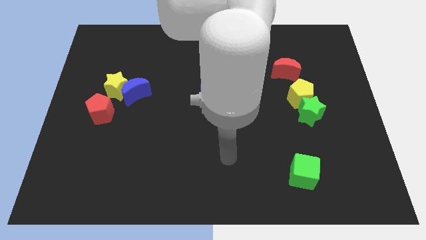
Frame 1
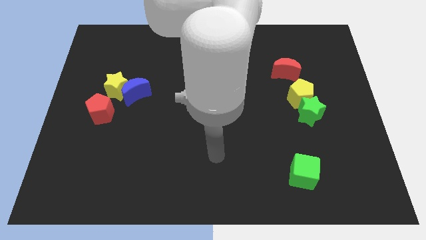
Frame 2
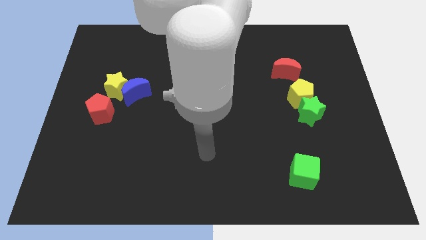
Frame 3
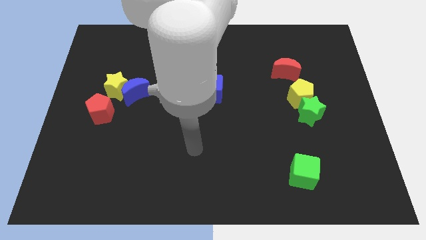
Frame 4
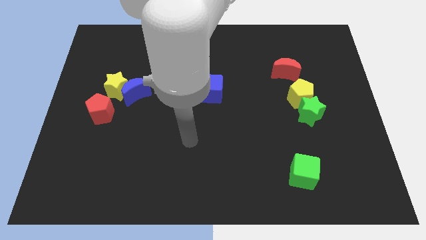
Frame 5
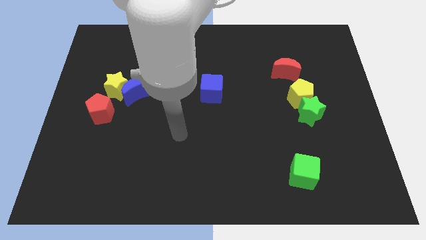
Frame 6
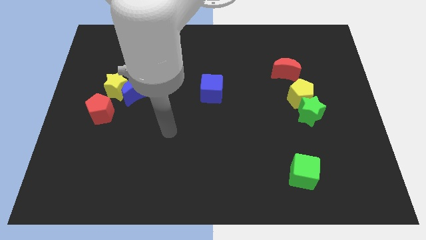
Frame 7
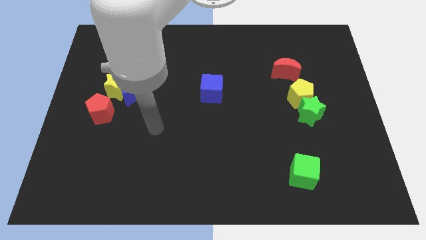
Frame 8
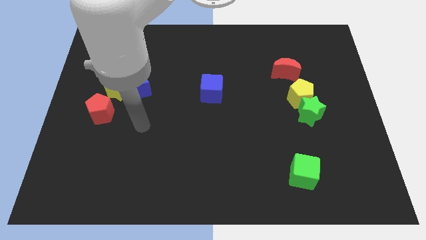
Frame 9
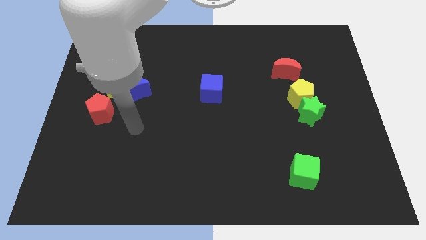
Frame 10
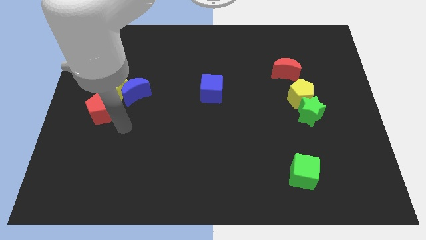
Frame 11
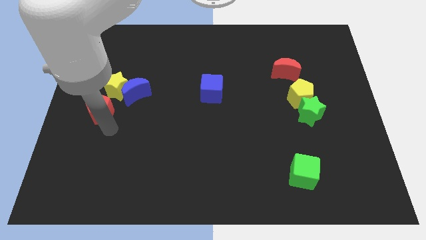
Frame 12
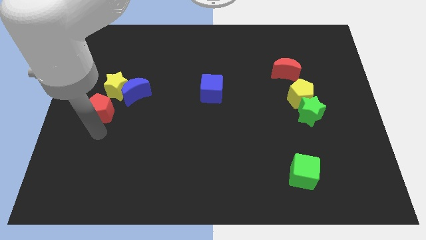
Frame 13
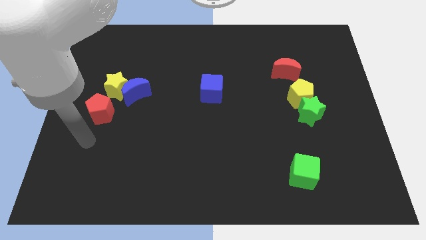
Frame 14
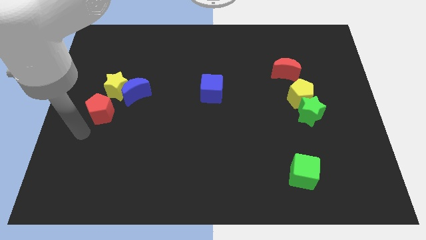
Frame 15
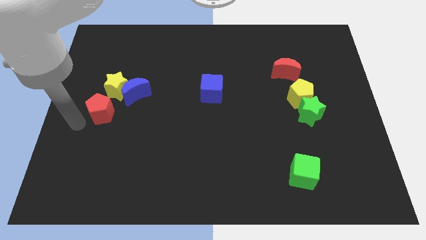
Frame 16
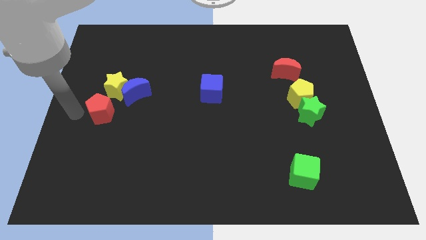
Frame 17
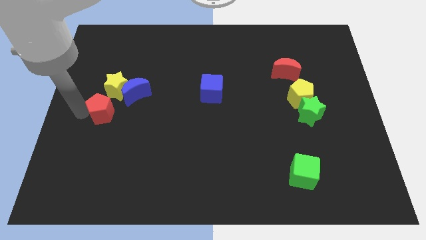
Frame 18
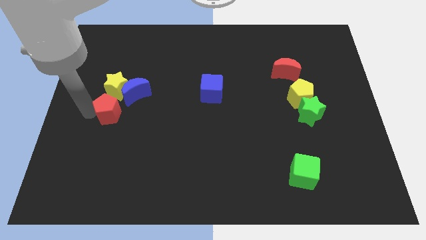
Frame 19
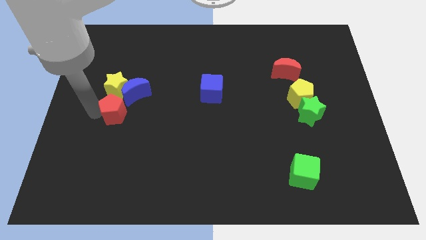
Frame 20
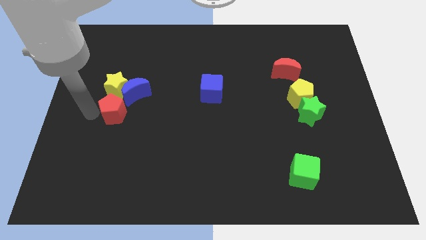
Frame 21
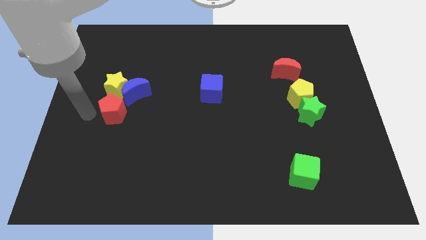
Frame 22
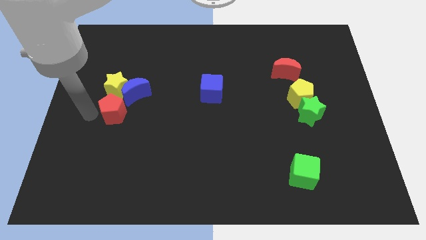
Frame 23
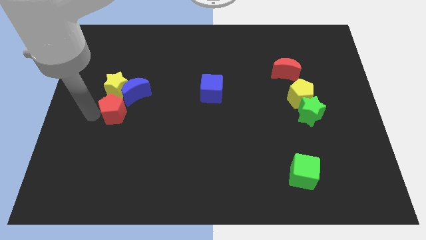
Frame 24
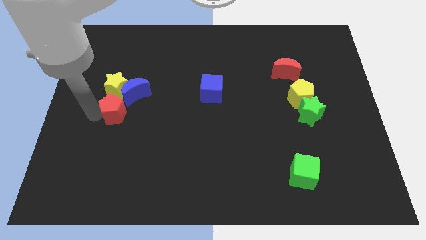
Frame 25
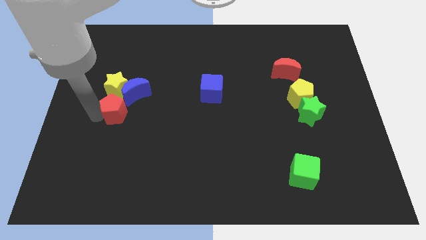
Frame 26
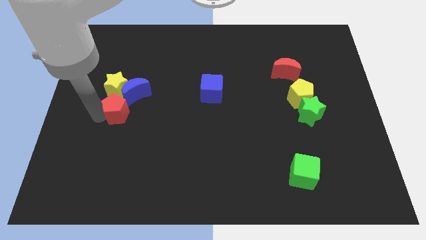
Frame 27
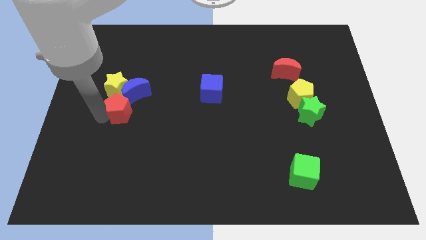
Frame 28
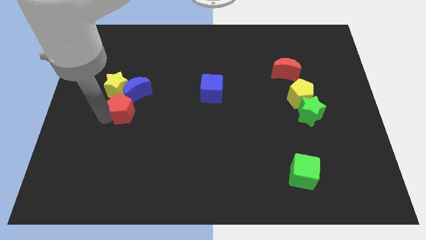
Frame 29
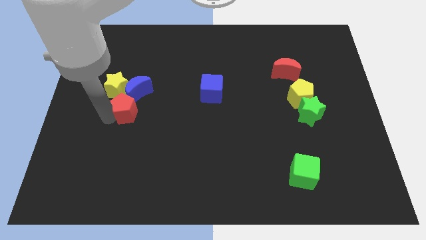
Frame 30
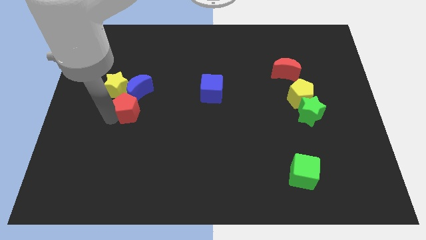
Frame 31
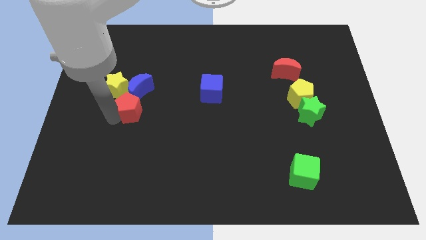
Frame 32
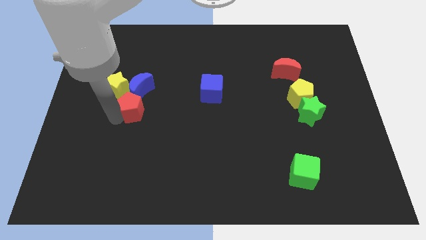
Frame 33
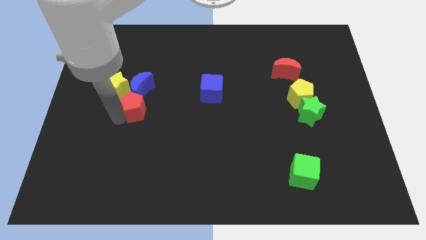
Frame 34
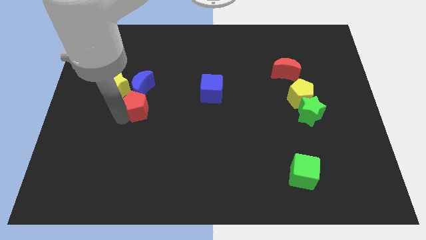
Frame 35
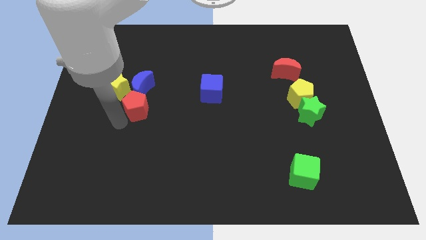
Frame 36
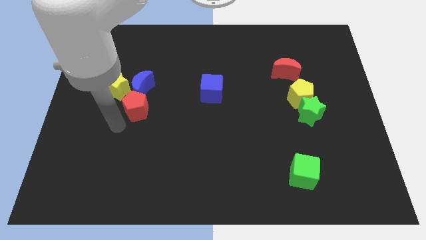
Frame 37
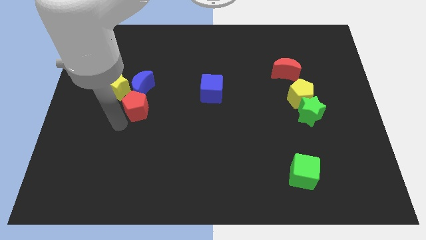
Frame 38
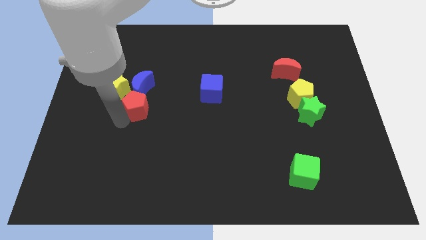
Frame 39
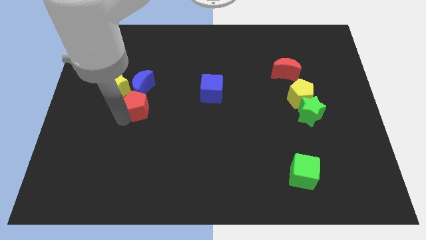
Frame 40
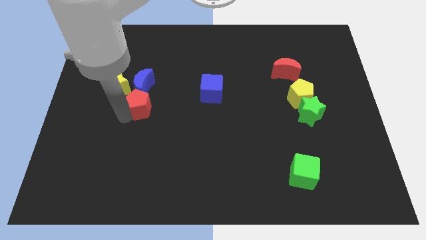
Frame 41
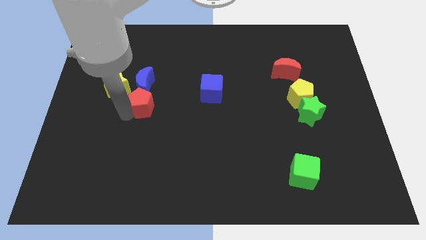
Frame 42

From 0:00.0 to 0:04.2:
push the red pentagon a little bit upwards and to the right diagonally

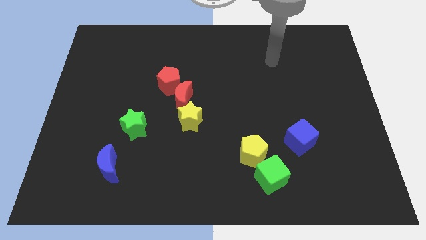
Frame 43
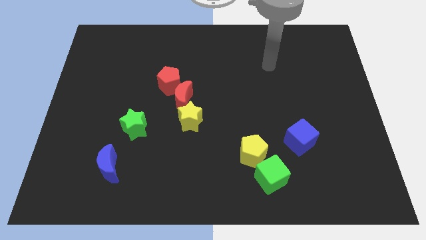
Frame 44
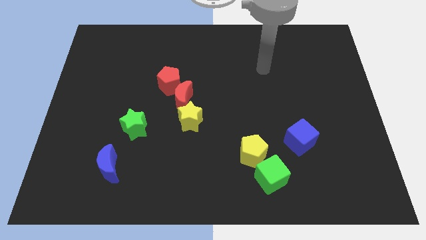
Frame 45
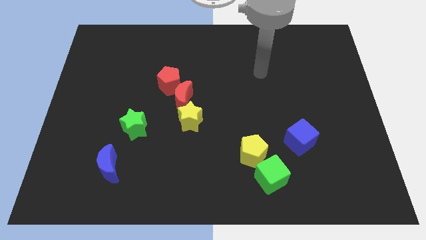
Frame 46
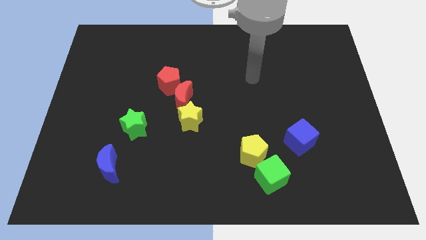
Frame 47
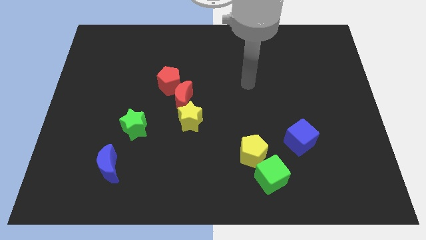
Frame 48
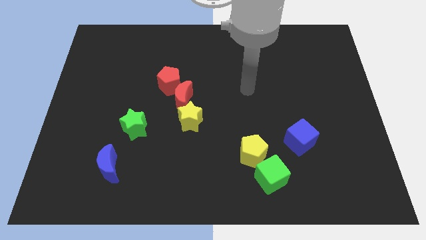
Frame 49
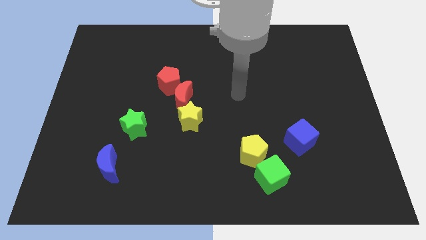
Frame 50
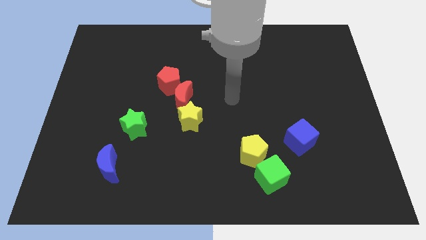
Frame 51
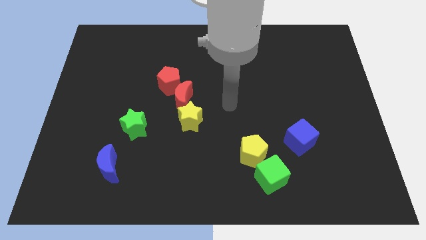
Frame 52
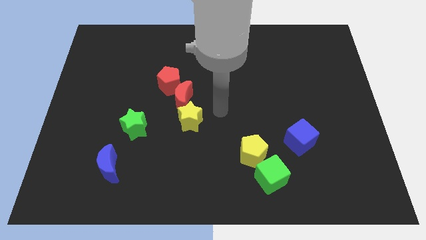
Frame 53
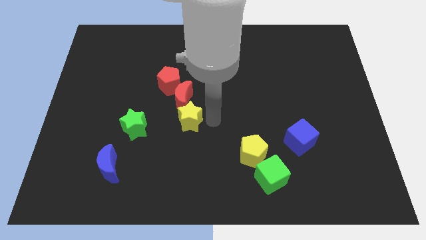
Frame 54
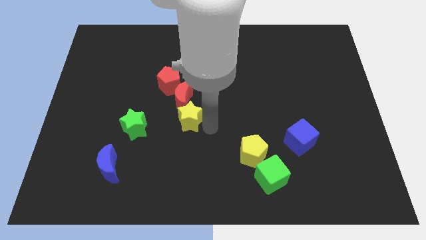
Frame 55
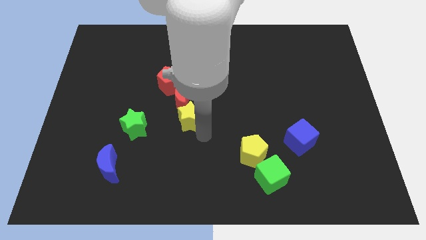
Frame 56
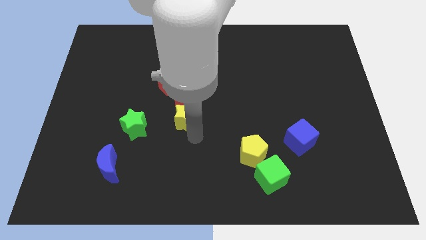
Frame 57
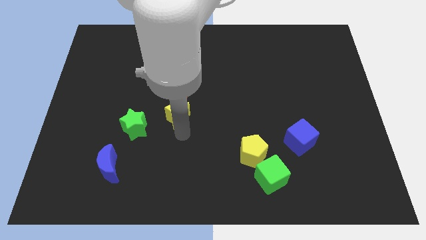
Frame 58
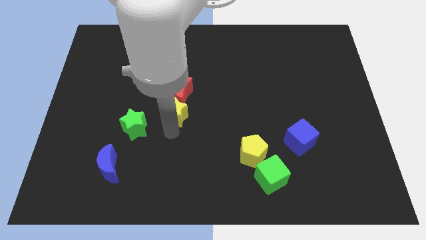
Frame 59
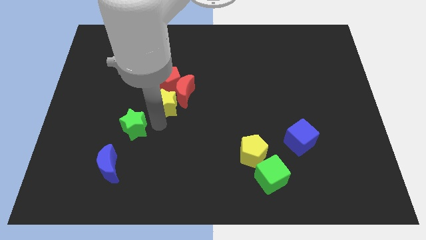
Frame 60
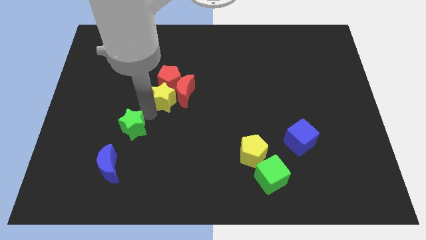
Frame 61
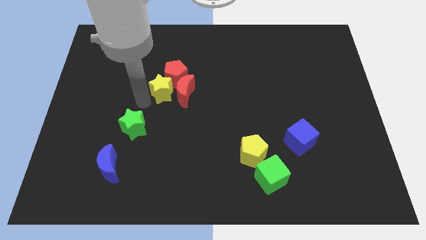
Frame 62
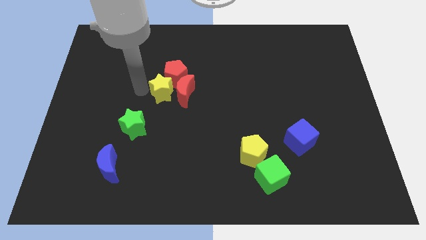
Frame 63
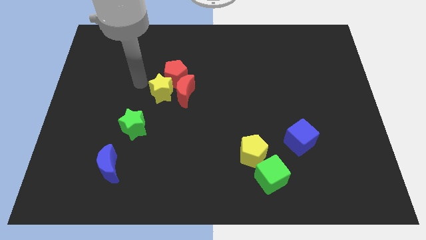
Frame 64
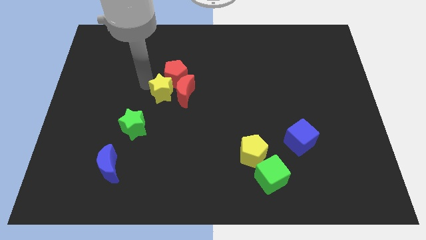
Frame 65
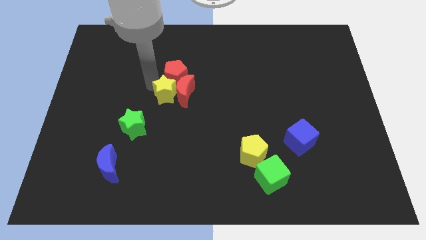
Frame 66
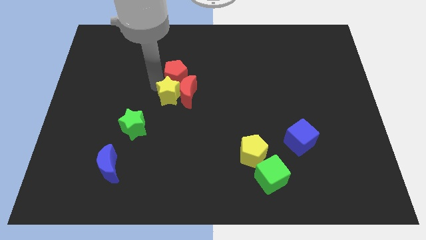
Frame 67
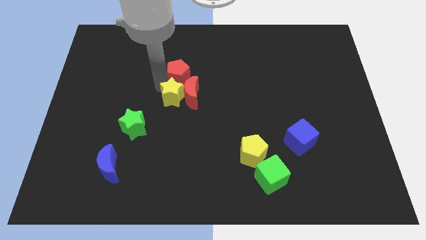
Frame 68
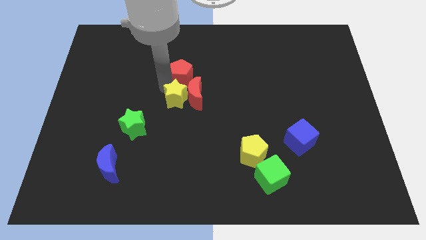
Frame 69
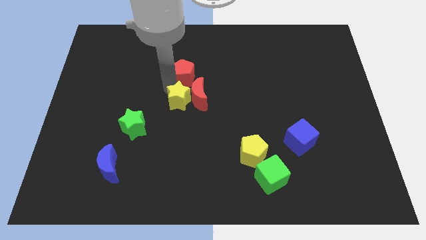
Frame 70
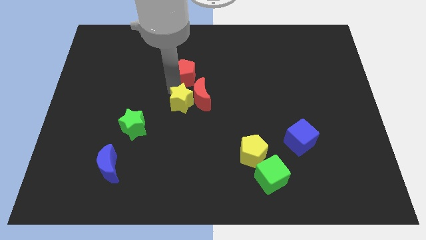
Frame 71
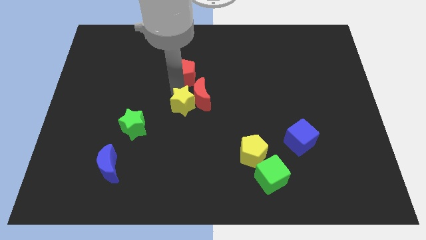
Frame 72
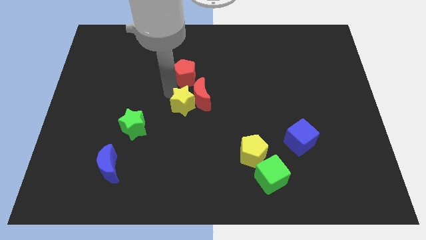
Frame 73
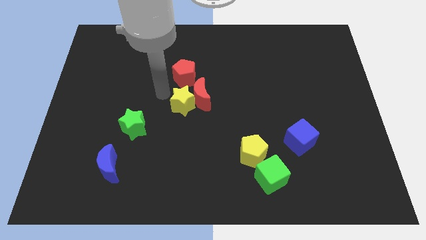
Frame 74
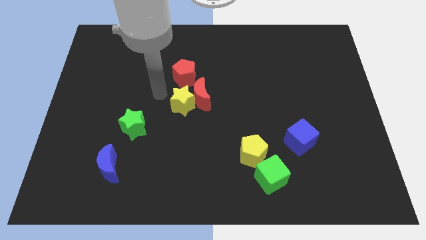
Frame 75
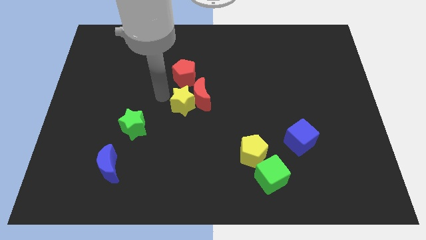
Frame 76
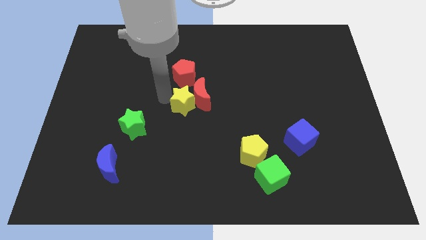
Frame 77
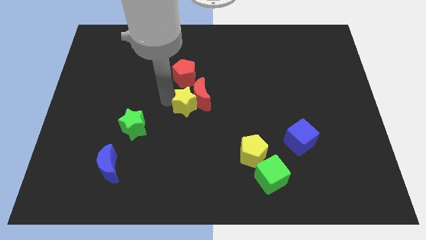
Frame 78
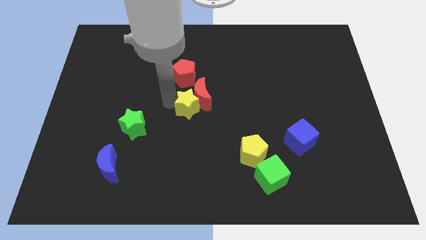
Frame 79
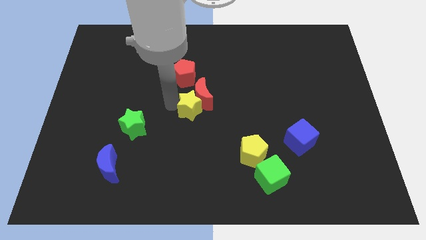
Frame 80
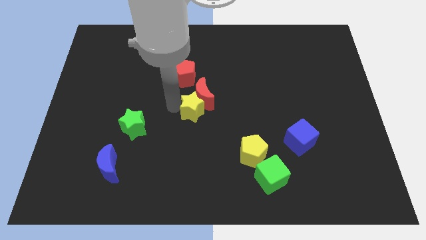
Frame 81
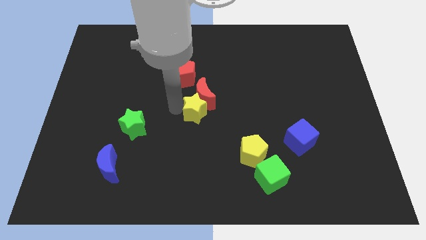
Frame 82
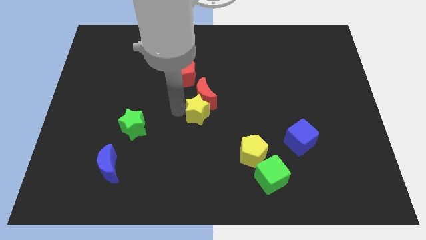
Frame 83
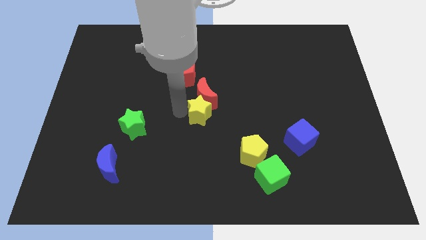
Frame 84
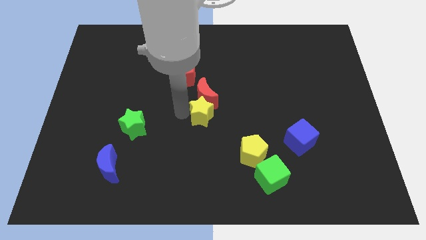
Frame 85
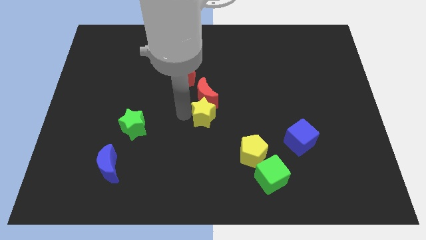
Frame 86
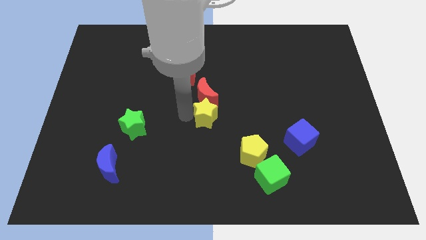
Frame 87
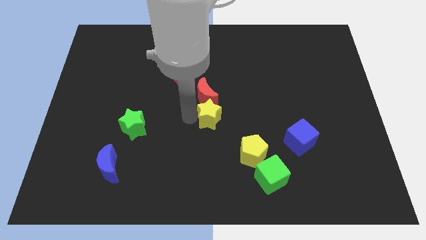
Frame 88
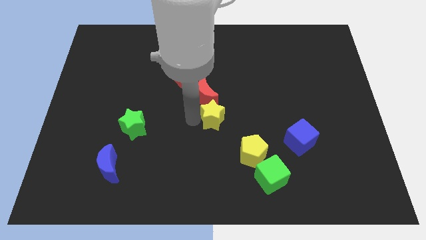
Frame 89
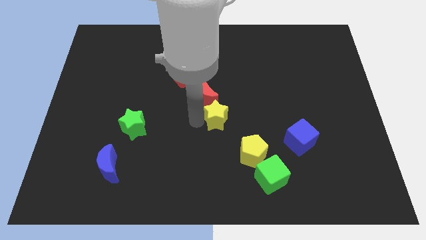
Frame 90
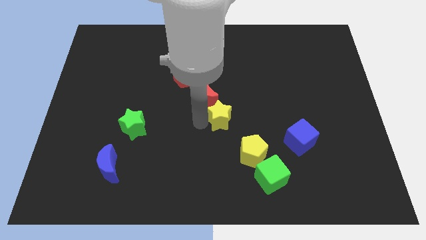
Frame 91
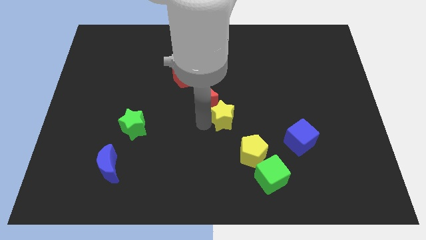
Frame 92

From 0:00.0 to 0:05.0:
push the yellow star a little to the right
